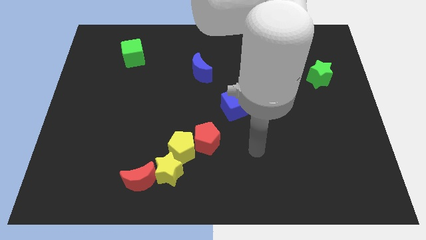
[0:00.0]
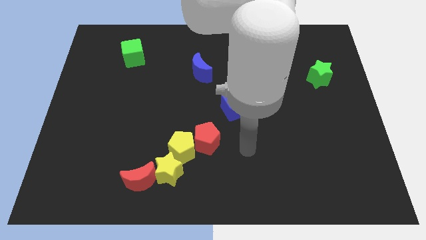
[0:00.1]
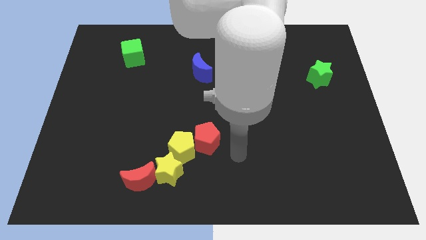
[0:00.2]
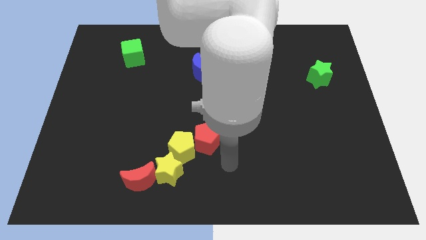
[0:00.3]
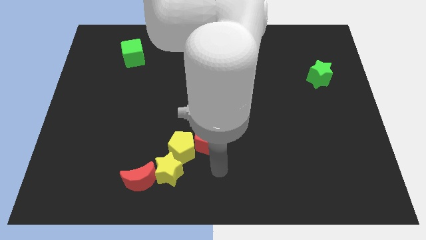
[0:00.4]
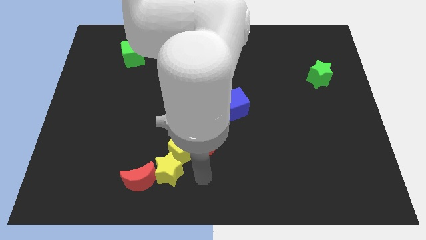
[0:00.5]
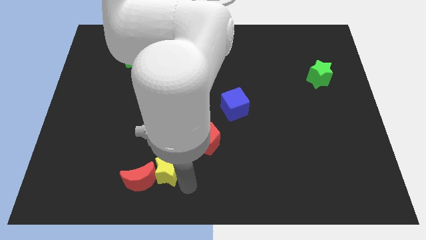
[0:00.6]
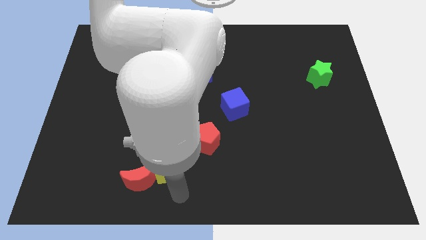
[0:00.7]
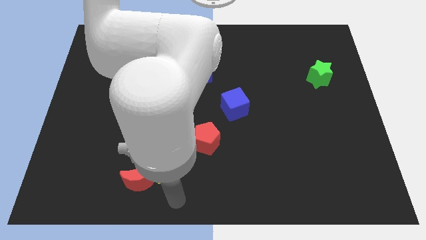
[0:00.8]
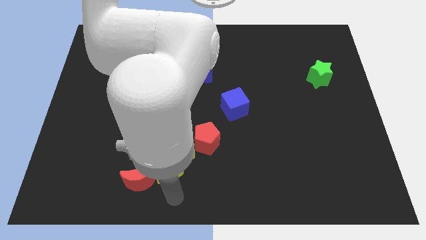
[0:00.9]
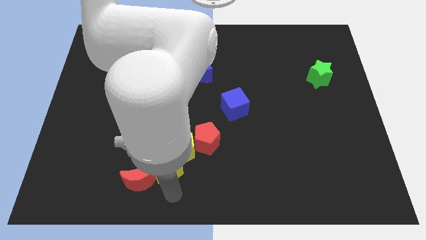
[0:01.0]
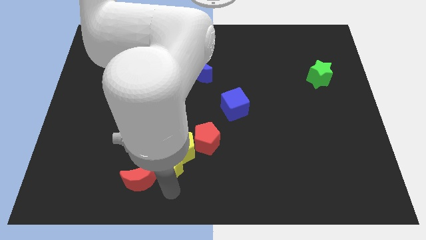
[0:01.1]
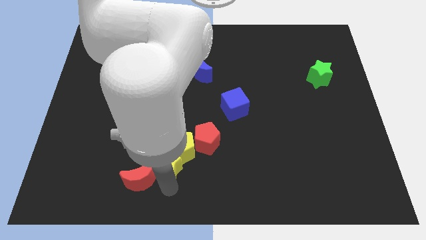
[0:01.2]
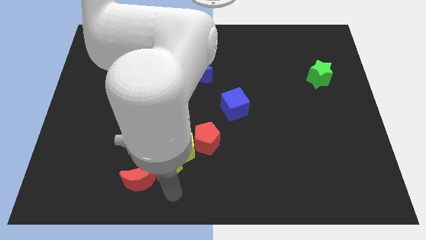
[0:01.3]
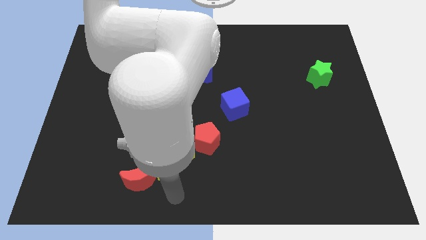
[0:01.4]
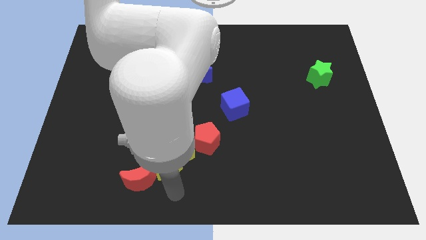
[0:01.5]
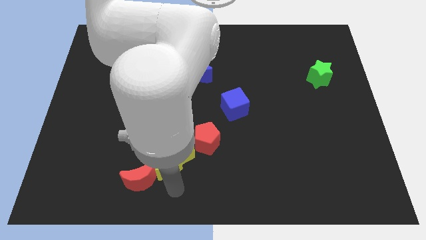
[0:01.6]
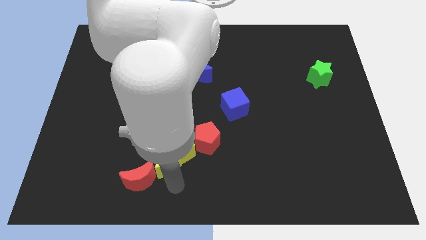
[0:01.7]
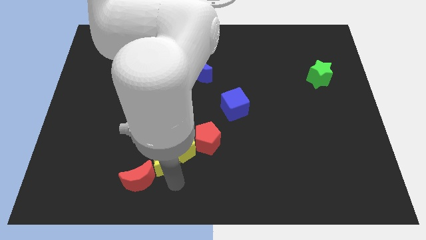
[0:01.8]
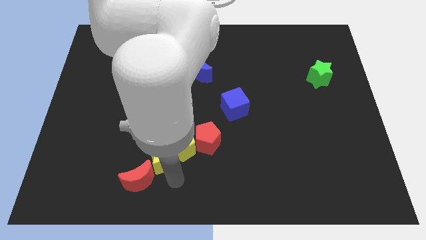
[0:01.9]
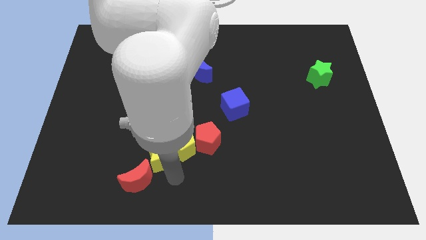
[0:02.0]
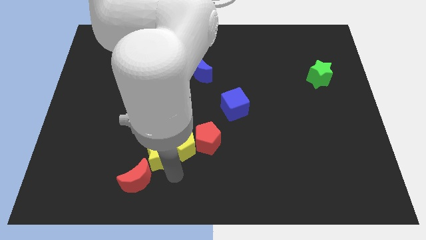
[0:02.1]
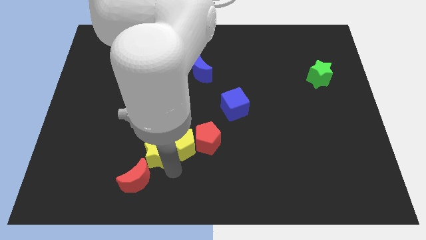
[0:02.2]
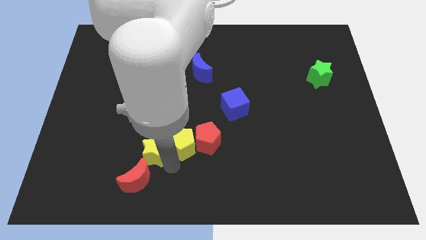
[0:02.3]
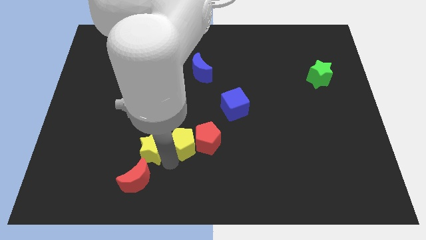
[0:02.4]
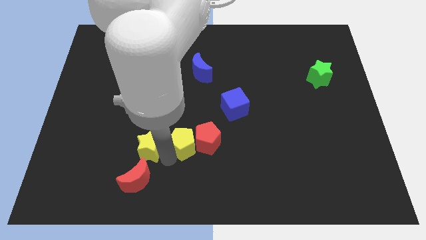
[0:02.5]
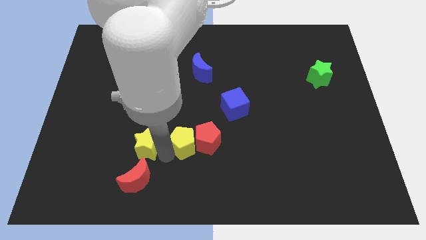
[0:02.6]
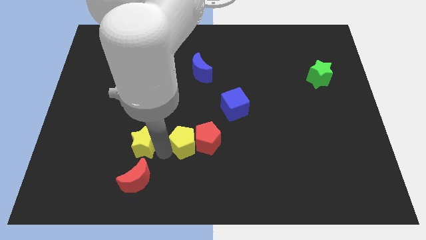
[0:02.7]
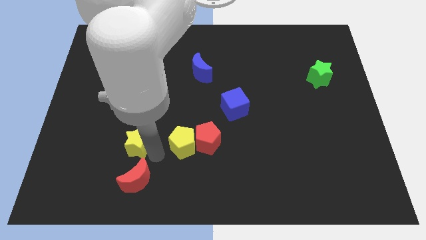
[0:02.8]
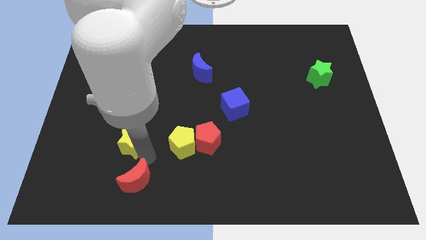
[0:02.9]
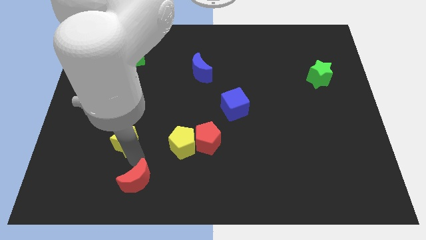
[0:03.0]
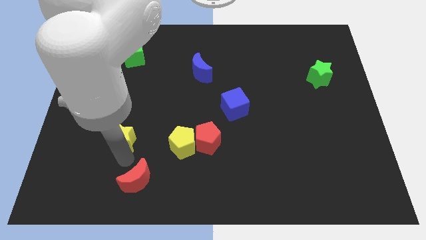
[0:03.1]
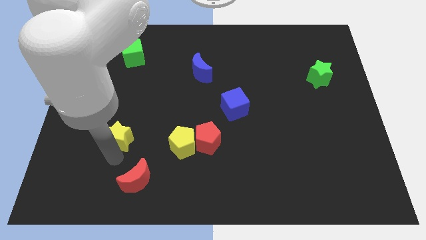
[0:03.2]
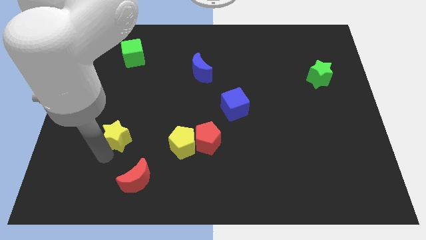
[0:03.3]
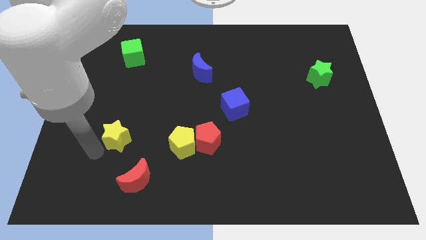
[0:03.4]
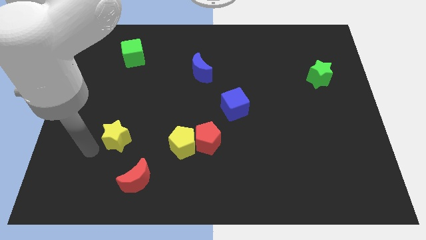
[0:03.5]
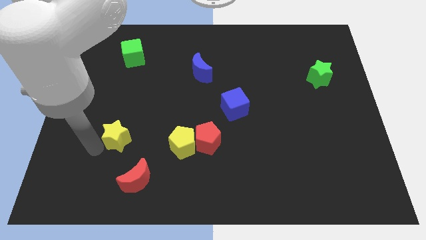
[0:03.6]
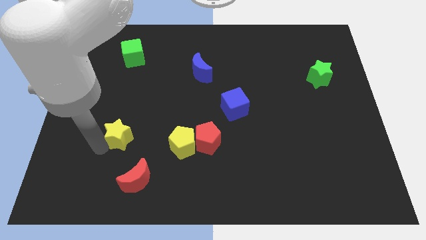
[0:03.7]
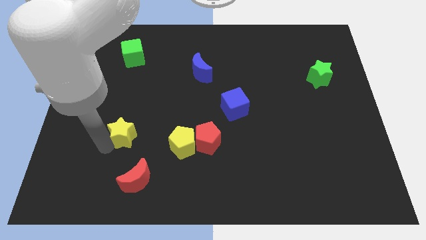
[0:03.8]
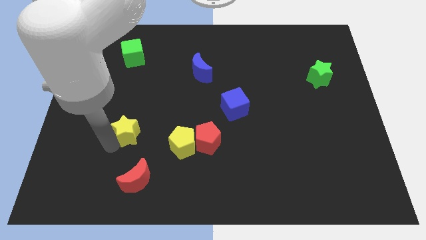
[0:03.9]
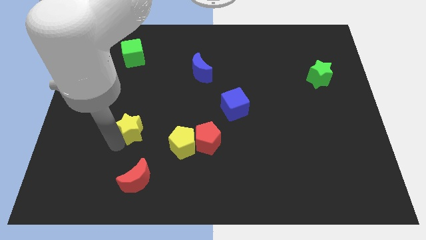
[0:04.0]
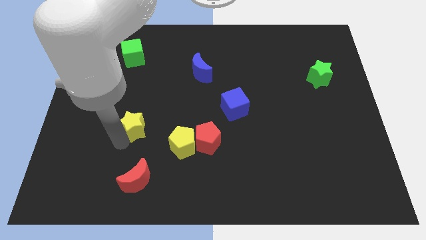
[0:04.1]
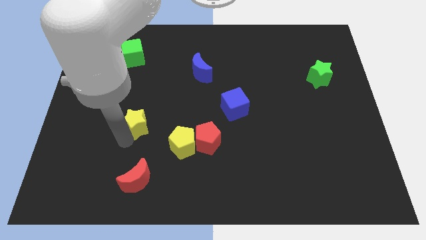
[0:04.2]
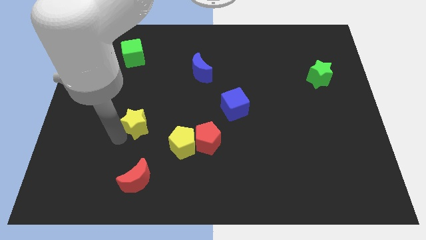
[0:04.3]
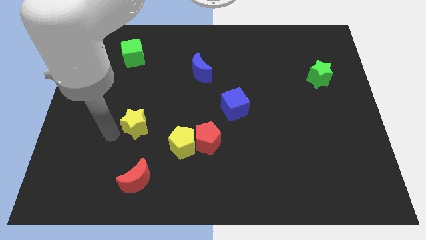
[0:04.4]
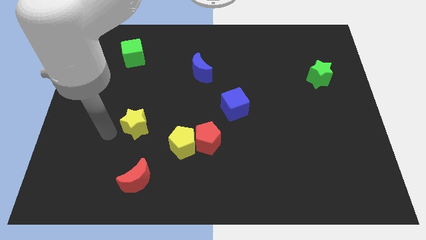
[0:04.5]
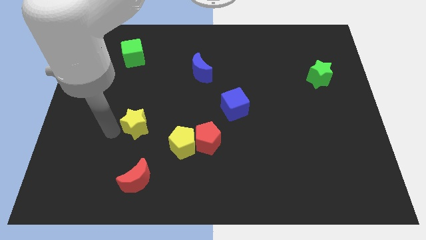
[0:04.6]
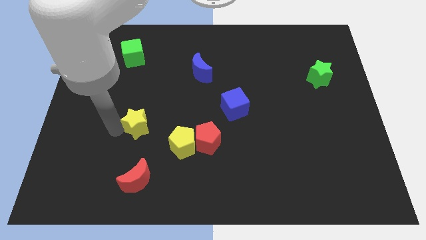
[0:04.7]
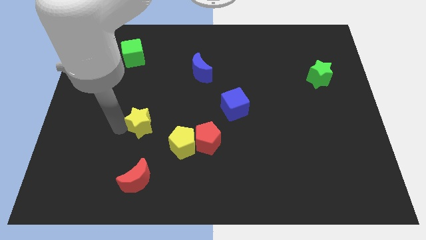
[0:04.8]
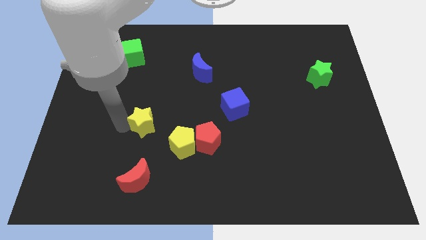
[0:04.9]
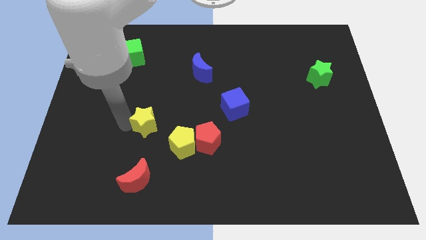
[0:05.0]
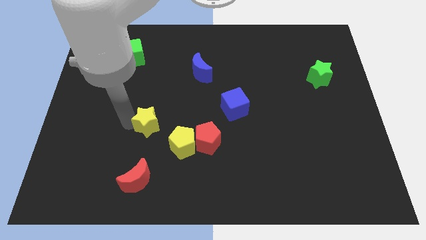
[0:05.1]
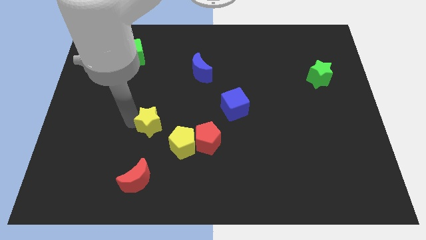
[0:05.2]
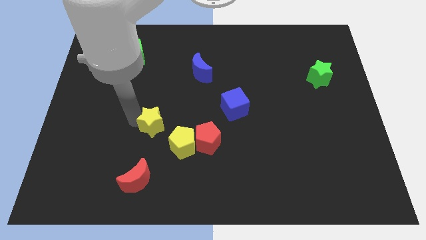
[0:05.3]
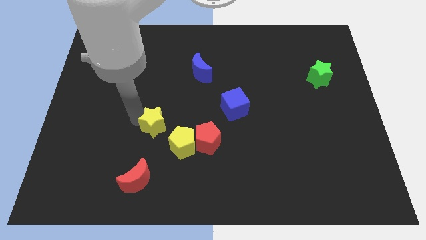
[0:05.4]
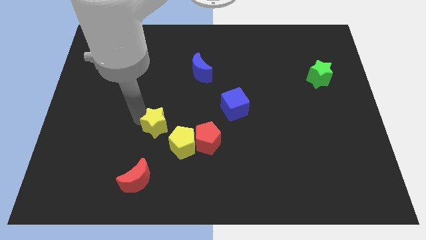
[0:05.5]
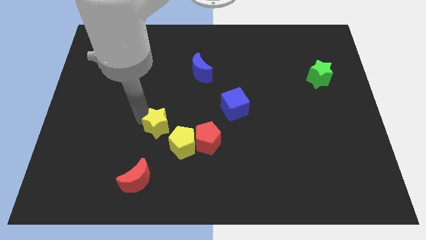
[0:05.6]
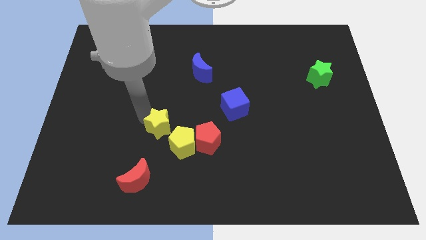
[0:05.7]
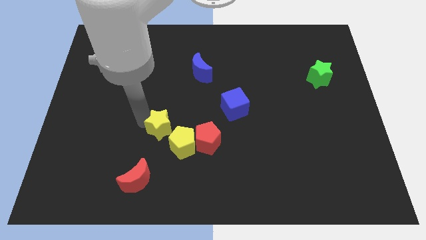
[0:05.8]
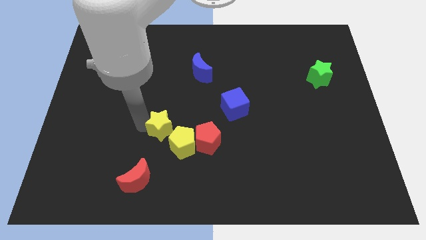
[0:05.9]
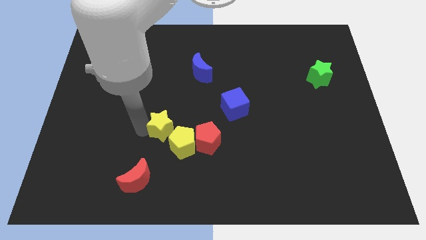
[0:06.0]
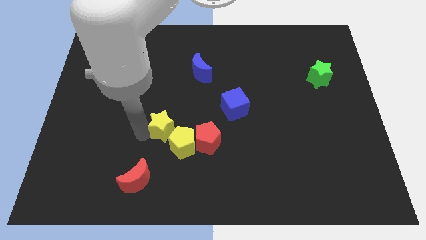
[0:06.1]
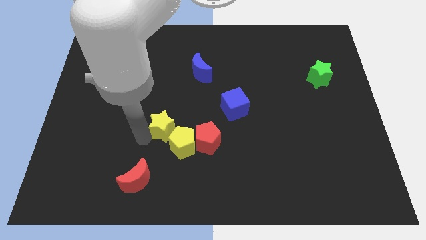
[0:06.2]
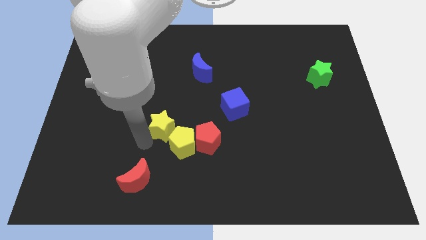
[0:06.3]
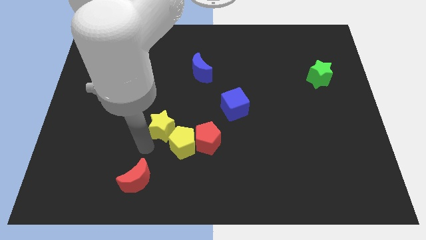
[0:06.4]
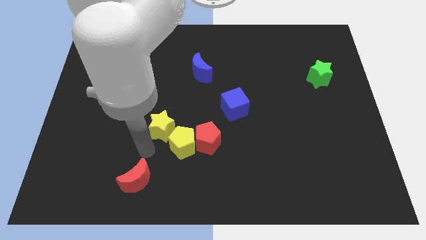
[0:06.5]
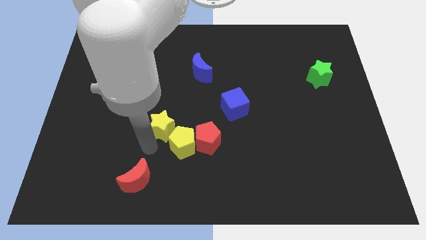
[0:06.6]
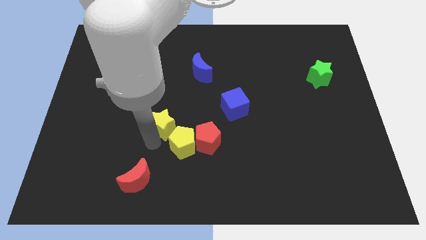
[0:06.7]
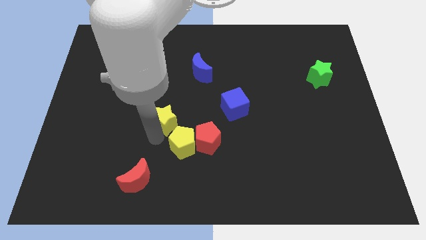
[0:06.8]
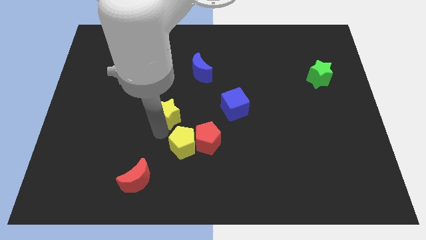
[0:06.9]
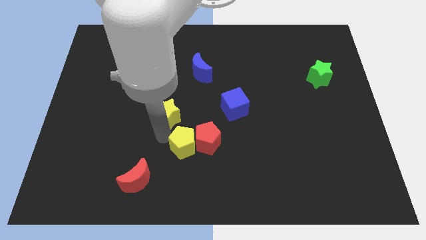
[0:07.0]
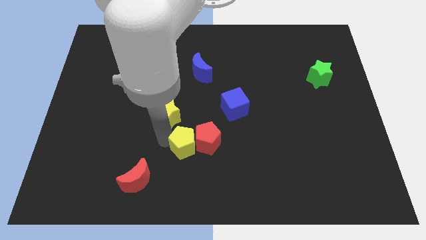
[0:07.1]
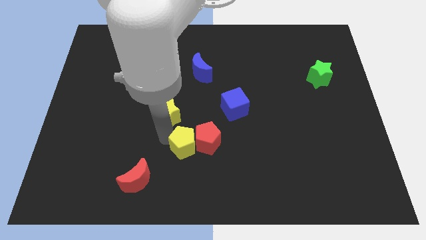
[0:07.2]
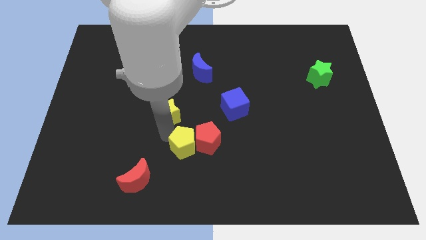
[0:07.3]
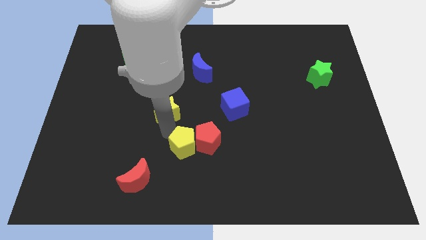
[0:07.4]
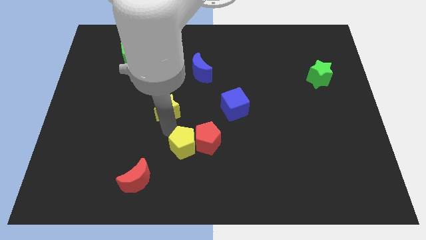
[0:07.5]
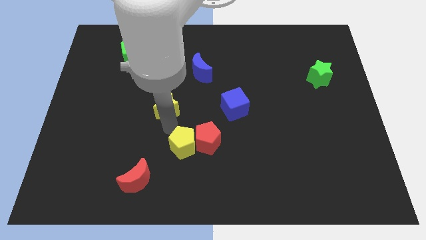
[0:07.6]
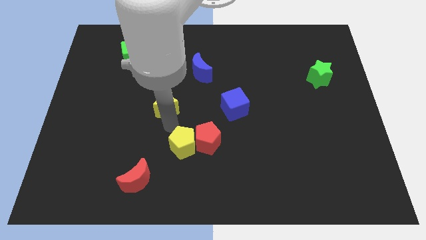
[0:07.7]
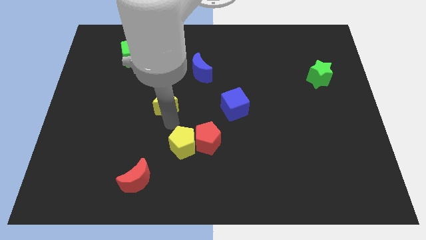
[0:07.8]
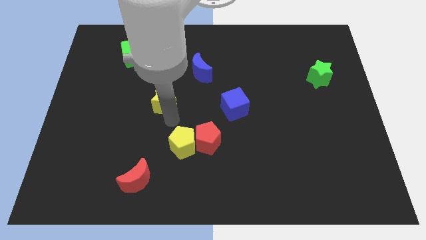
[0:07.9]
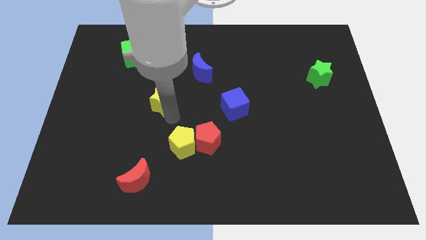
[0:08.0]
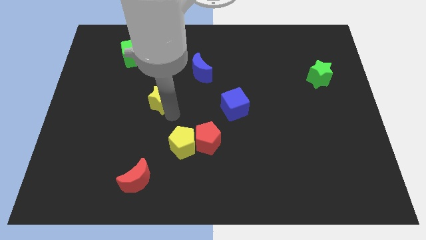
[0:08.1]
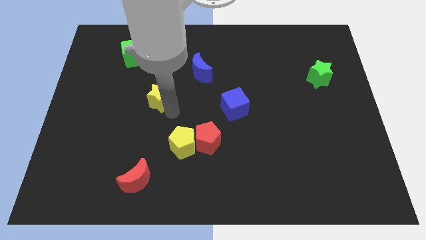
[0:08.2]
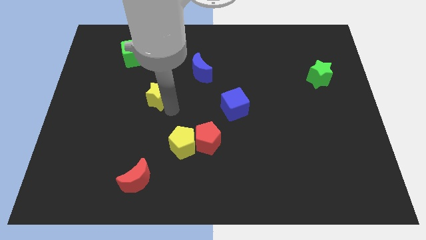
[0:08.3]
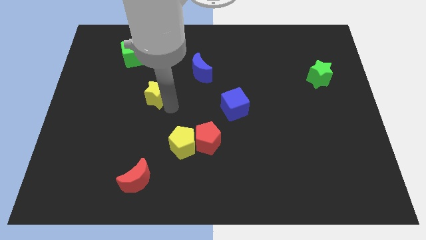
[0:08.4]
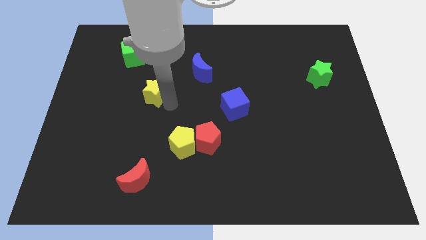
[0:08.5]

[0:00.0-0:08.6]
push the yellow star upwards
